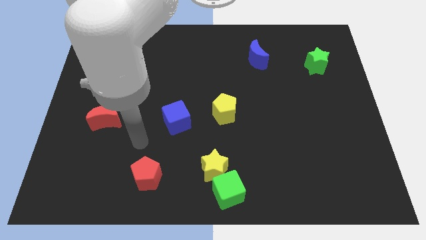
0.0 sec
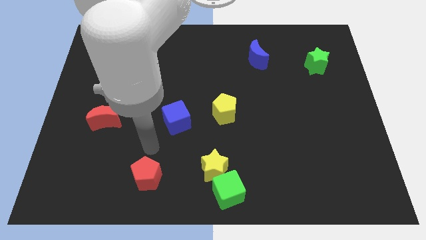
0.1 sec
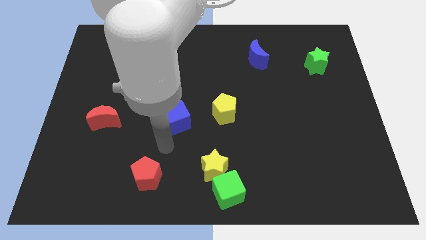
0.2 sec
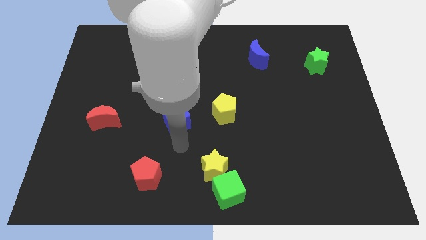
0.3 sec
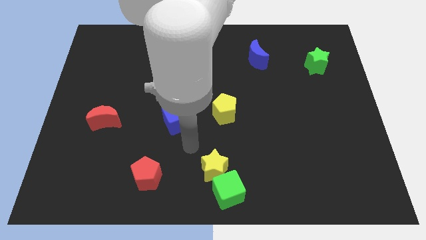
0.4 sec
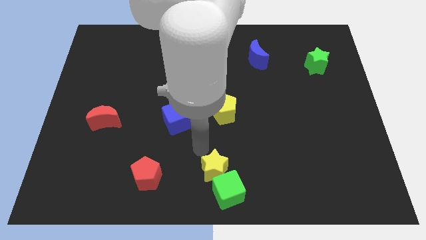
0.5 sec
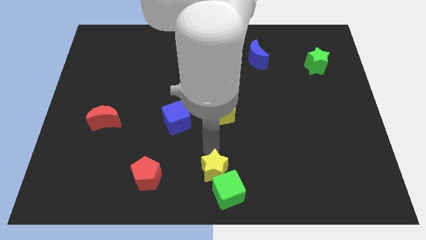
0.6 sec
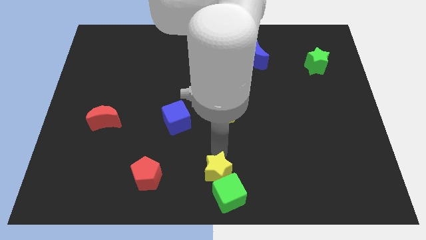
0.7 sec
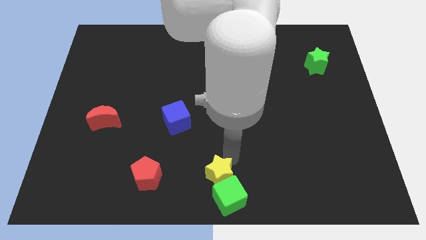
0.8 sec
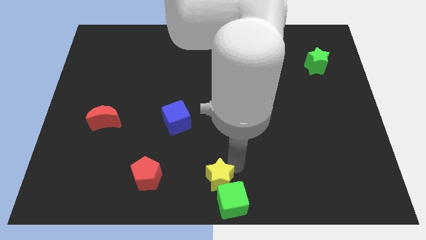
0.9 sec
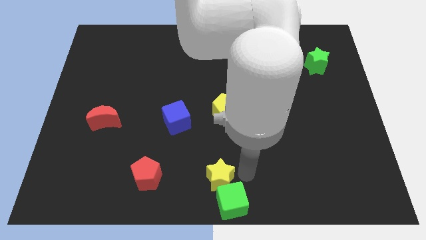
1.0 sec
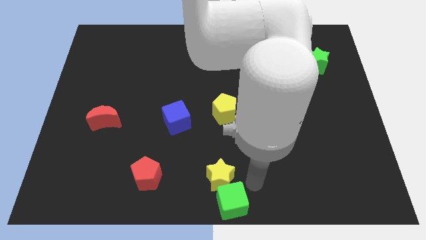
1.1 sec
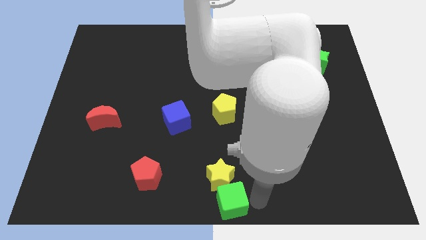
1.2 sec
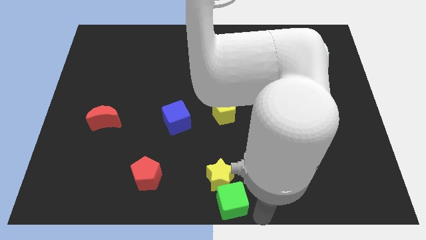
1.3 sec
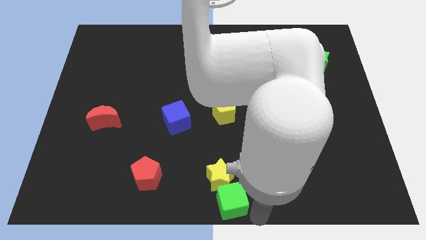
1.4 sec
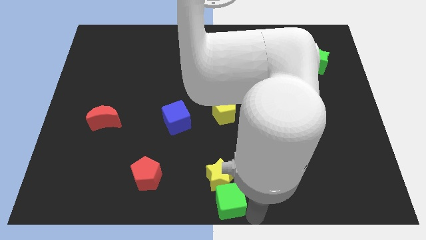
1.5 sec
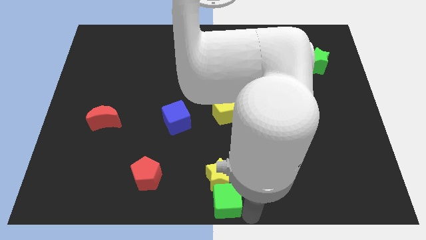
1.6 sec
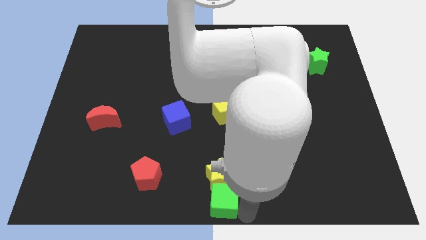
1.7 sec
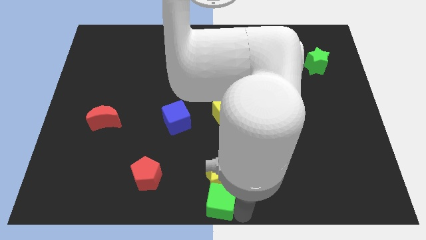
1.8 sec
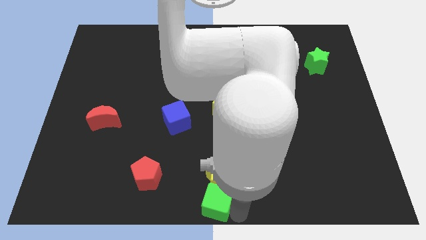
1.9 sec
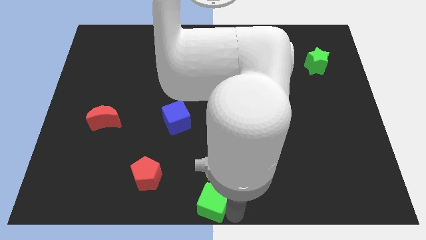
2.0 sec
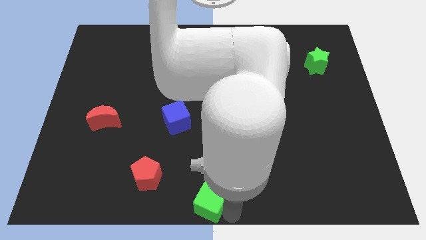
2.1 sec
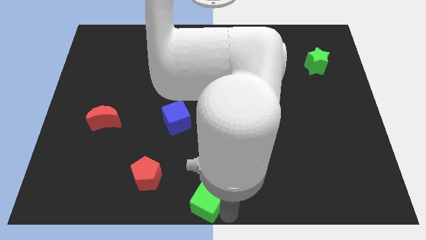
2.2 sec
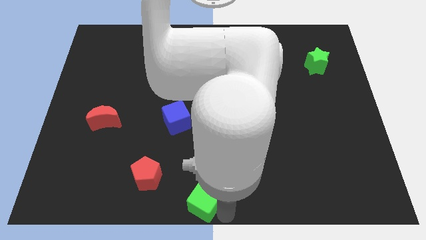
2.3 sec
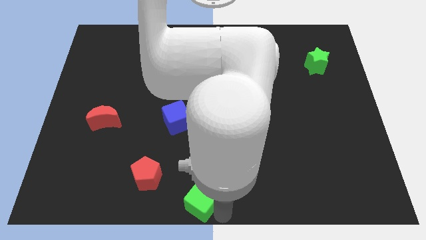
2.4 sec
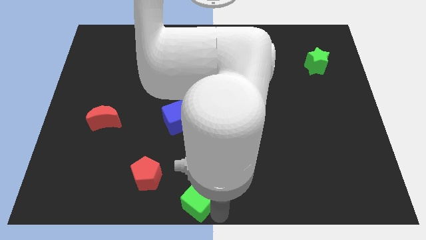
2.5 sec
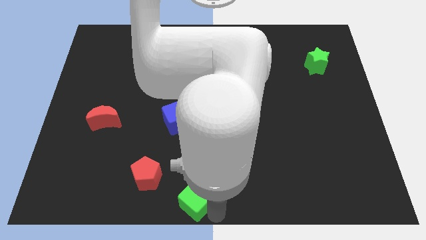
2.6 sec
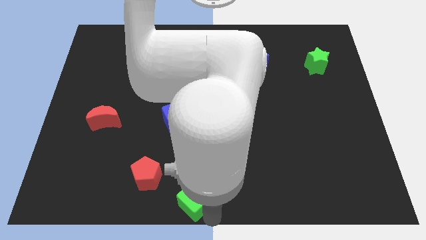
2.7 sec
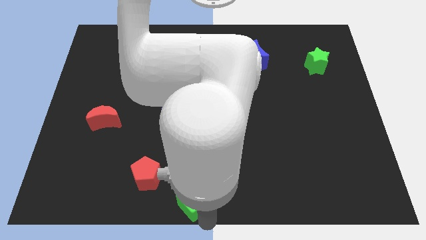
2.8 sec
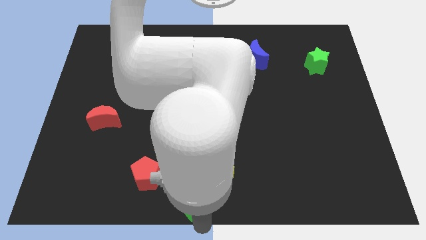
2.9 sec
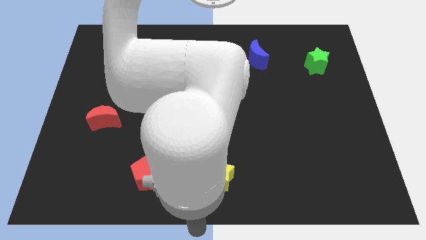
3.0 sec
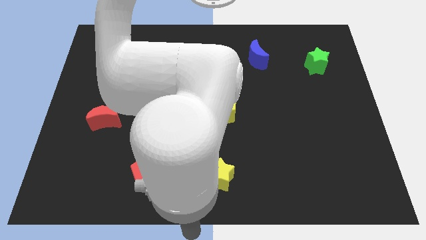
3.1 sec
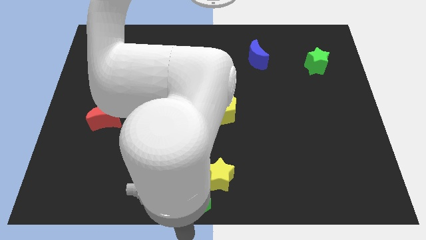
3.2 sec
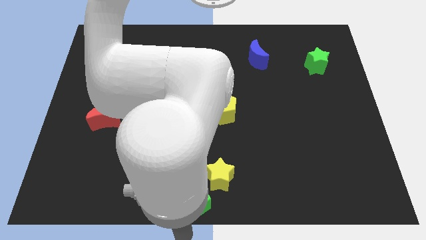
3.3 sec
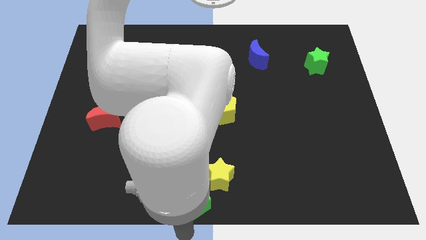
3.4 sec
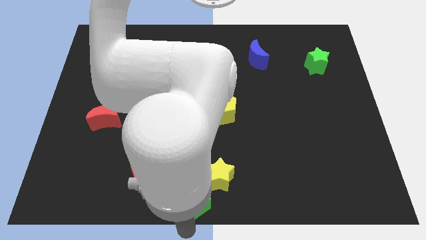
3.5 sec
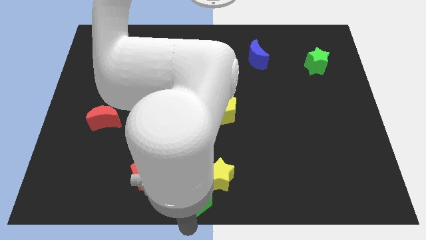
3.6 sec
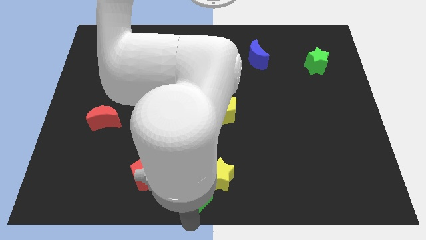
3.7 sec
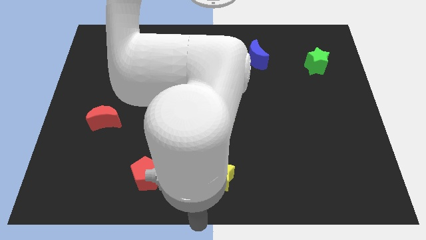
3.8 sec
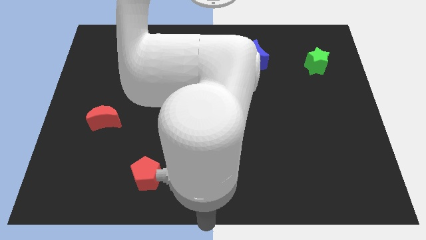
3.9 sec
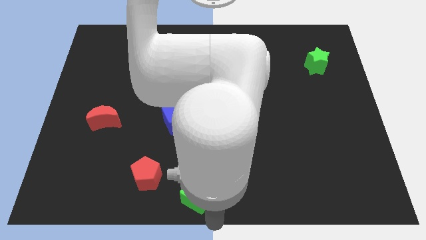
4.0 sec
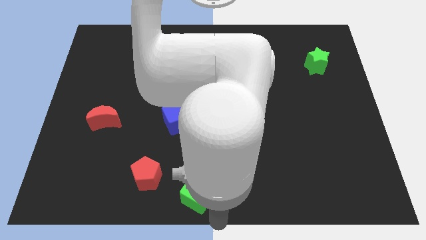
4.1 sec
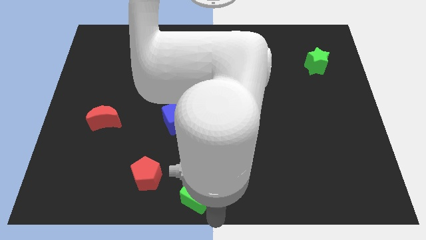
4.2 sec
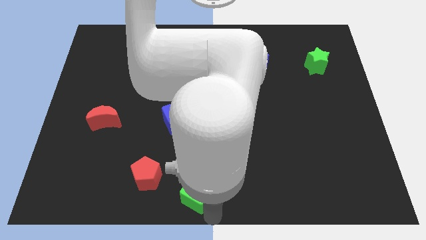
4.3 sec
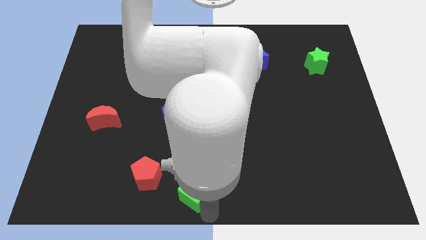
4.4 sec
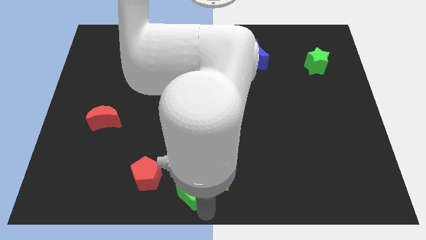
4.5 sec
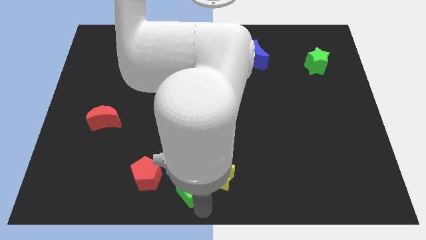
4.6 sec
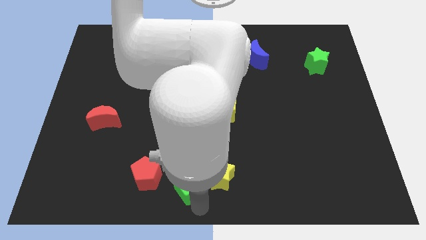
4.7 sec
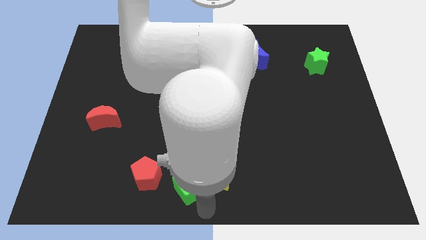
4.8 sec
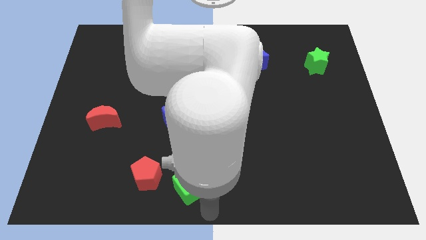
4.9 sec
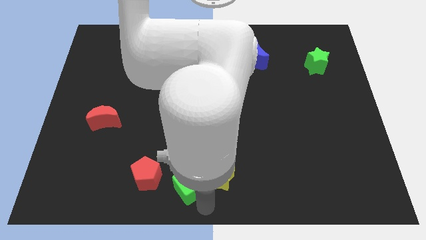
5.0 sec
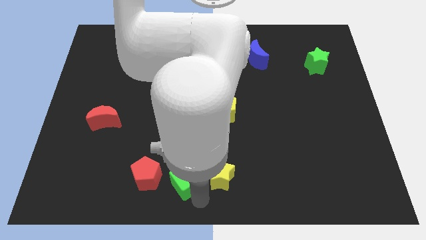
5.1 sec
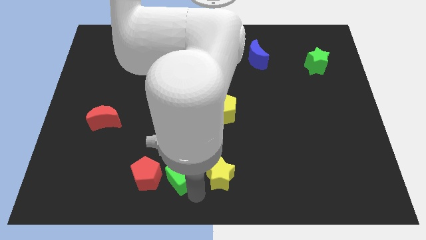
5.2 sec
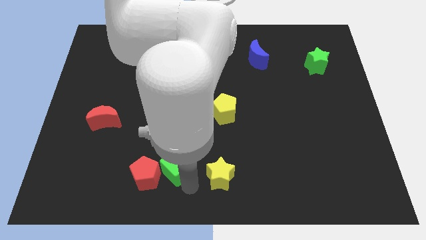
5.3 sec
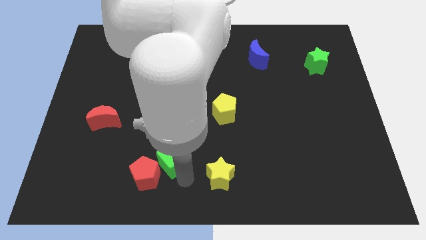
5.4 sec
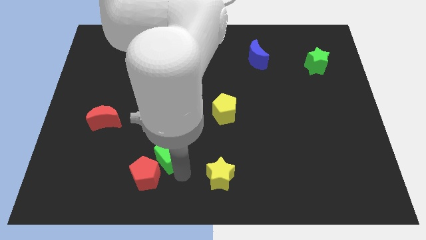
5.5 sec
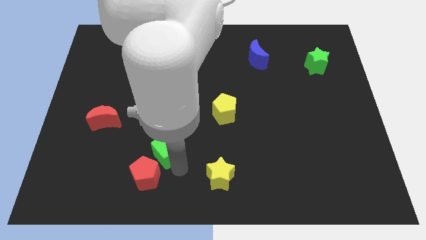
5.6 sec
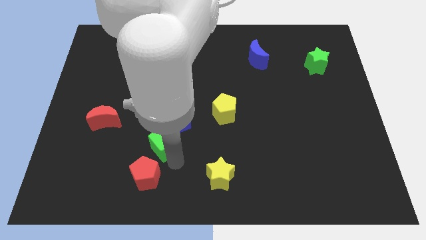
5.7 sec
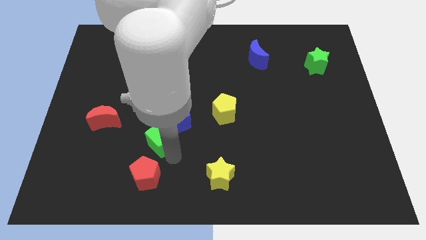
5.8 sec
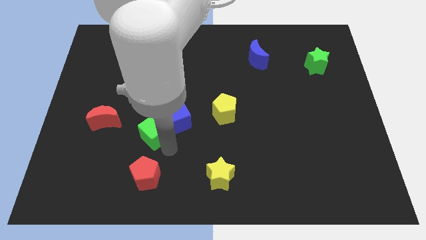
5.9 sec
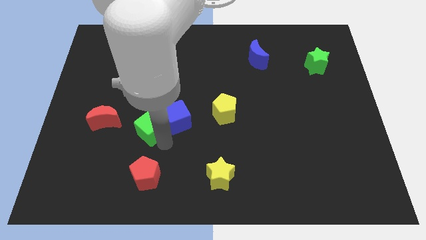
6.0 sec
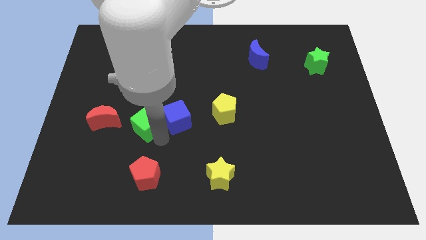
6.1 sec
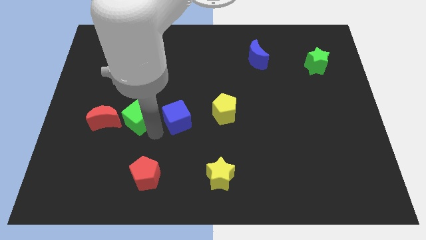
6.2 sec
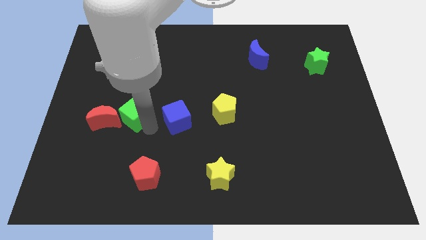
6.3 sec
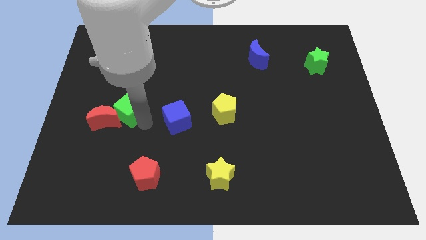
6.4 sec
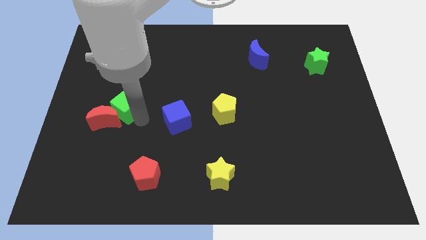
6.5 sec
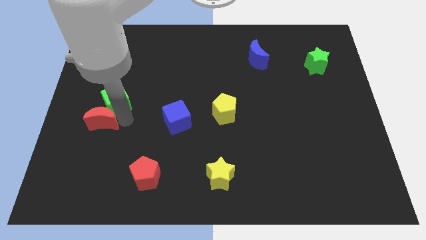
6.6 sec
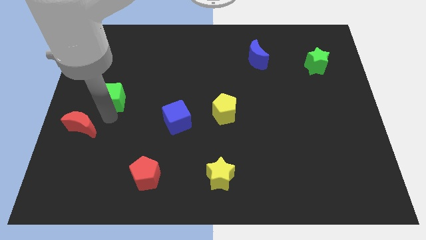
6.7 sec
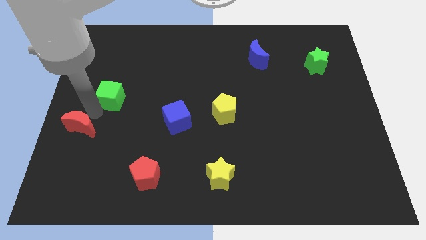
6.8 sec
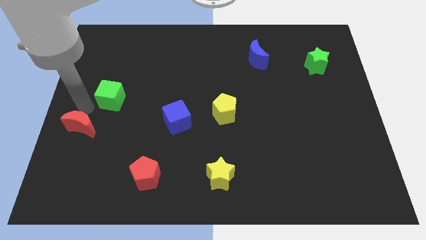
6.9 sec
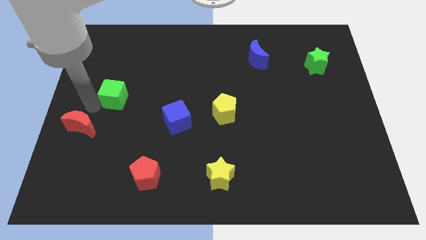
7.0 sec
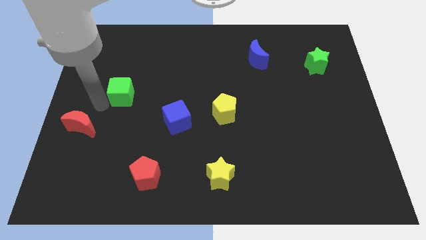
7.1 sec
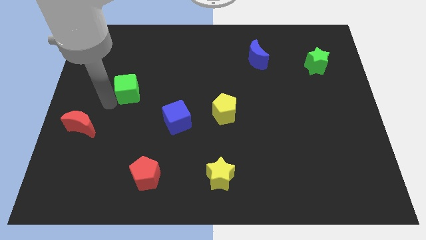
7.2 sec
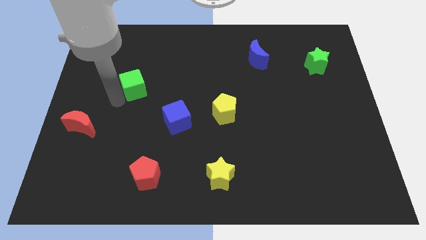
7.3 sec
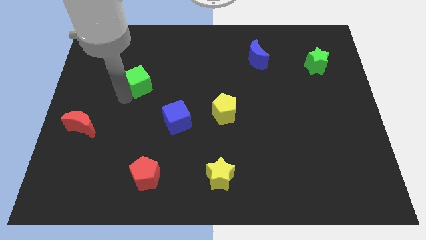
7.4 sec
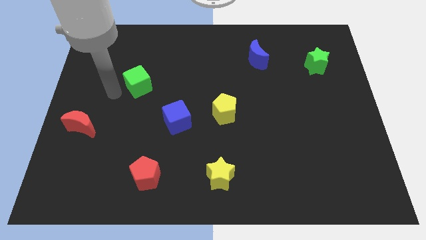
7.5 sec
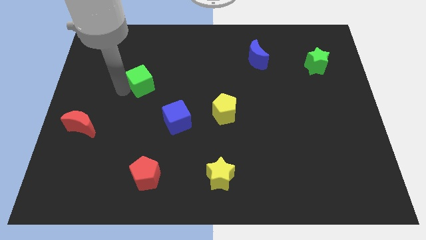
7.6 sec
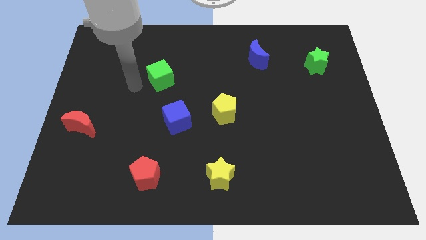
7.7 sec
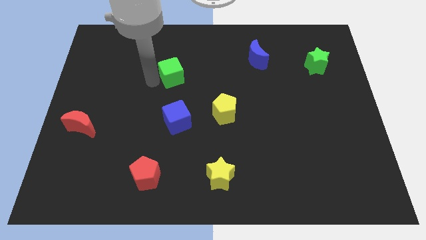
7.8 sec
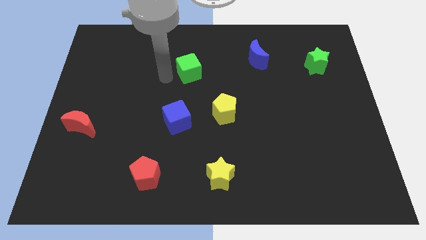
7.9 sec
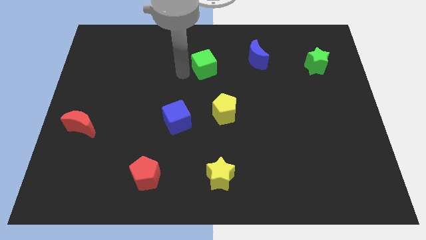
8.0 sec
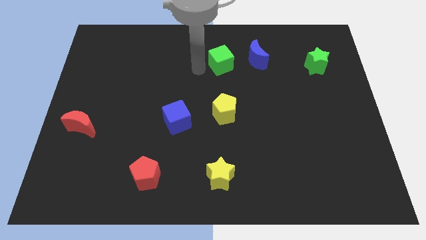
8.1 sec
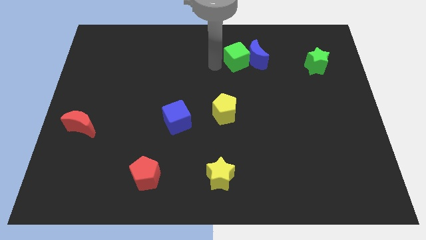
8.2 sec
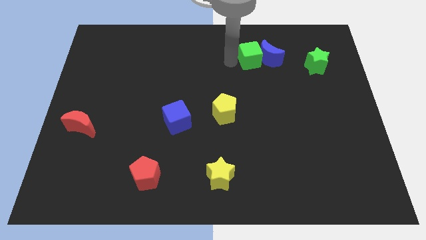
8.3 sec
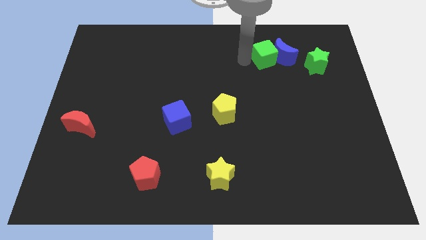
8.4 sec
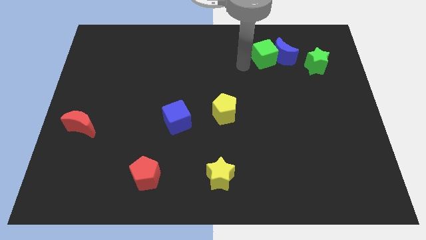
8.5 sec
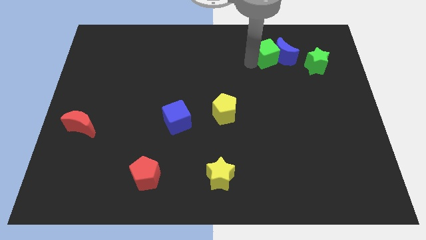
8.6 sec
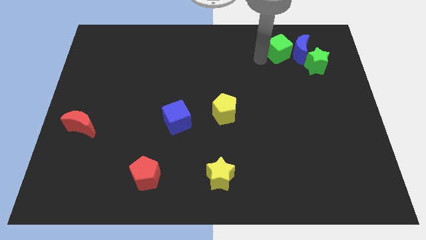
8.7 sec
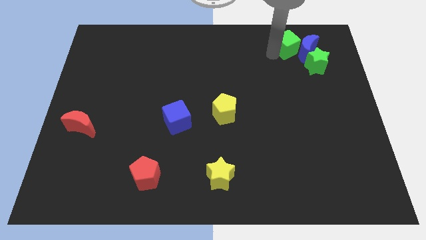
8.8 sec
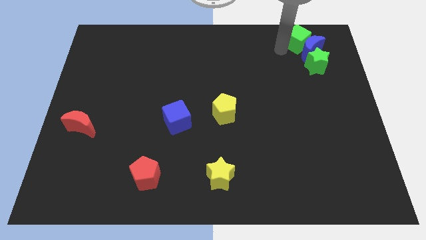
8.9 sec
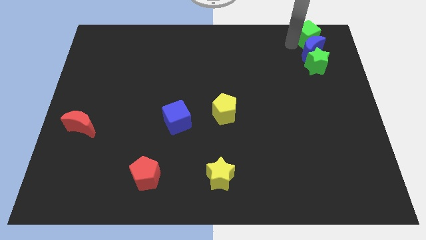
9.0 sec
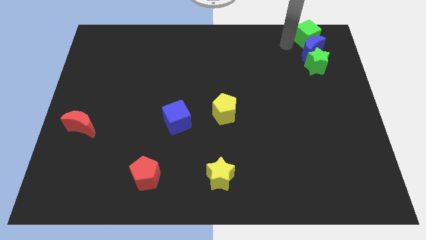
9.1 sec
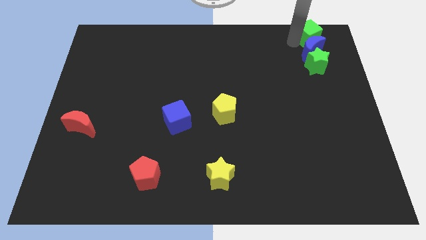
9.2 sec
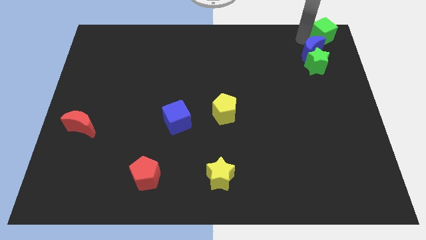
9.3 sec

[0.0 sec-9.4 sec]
put the green cube to the upper right corner
